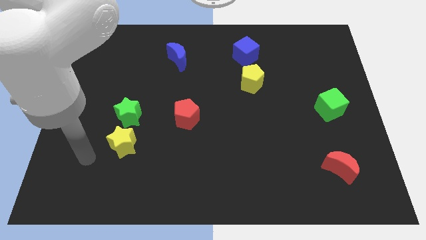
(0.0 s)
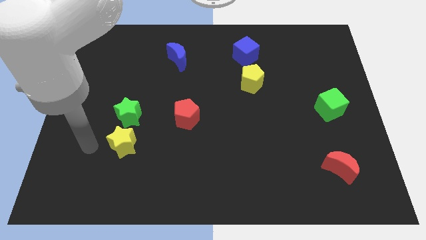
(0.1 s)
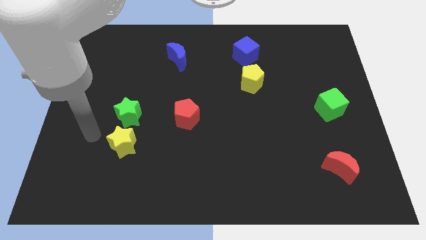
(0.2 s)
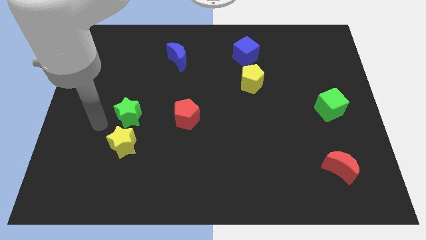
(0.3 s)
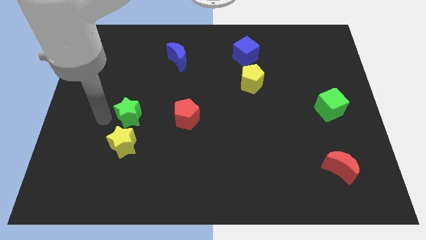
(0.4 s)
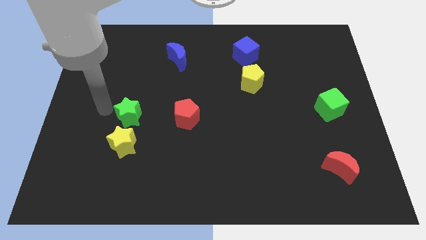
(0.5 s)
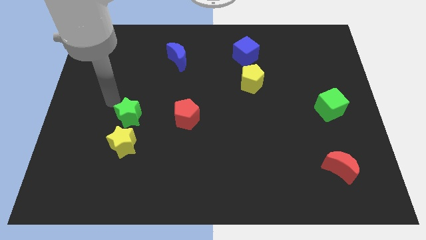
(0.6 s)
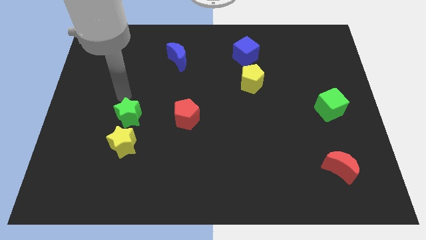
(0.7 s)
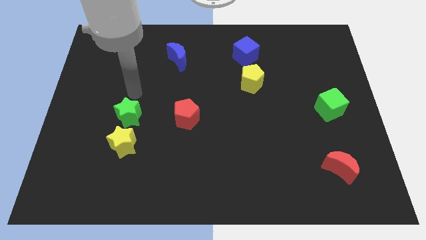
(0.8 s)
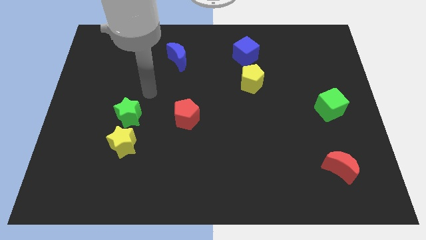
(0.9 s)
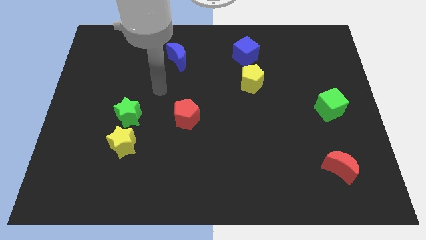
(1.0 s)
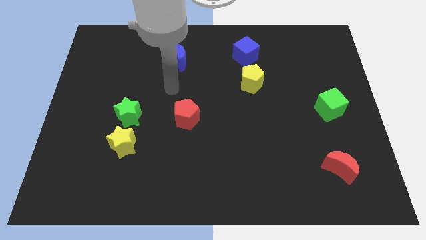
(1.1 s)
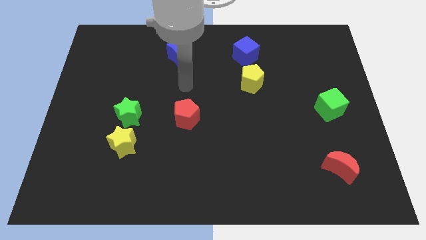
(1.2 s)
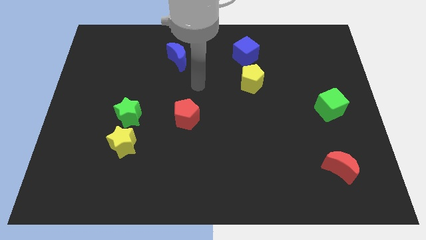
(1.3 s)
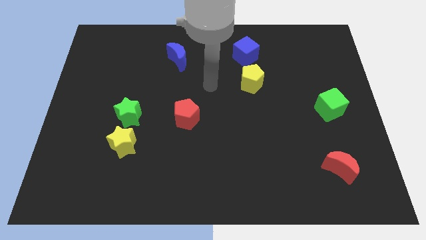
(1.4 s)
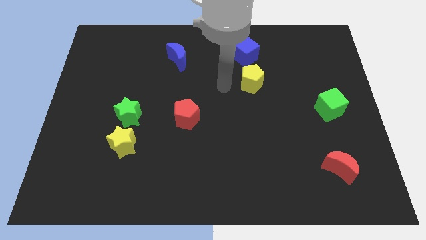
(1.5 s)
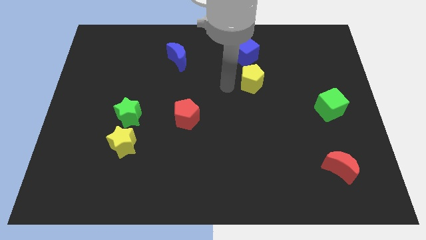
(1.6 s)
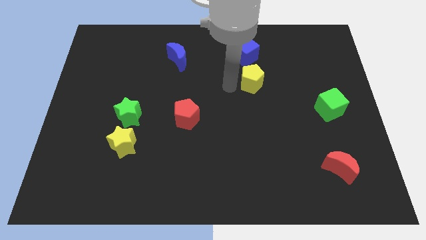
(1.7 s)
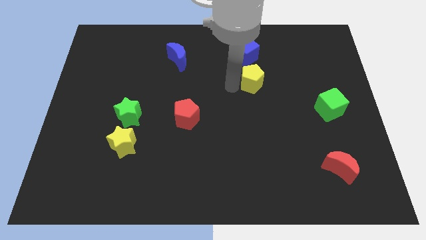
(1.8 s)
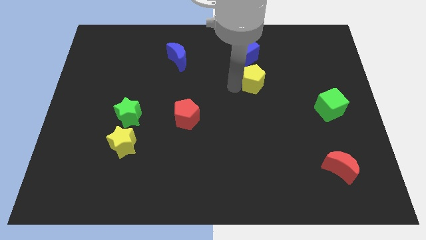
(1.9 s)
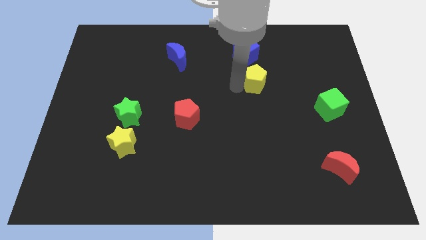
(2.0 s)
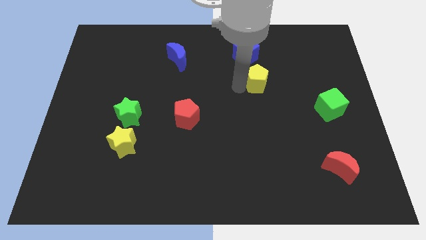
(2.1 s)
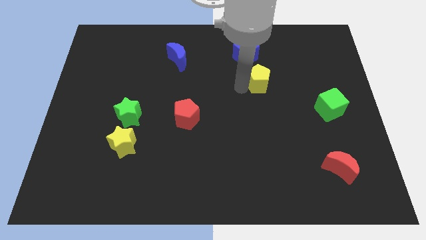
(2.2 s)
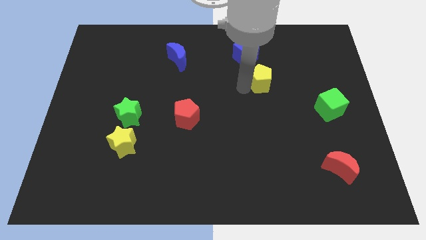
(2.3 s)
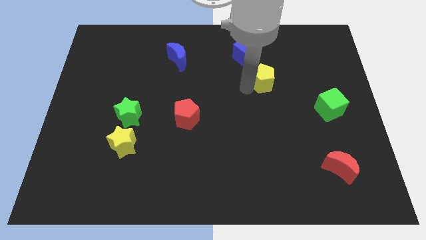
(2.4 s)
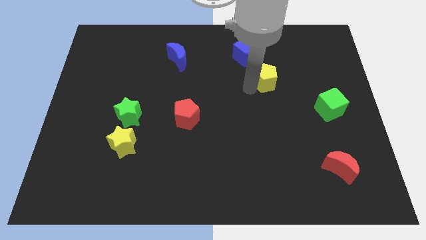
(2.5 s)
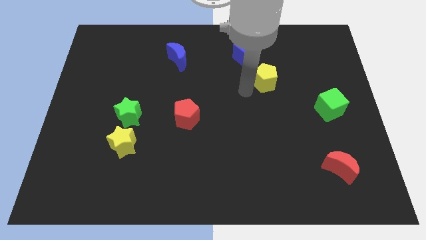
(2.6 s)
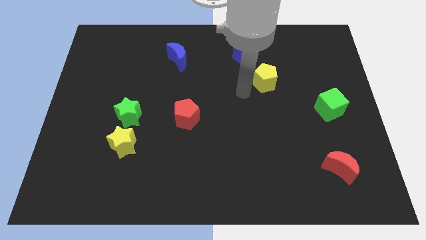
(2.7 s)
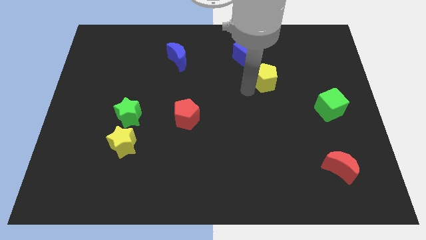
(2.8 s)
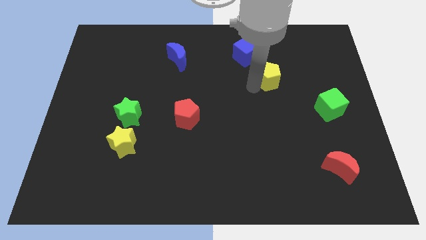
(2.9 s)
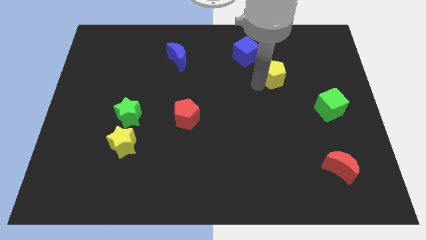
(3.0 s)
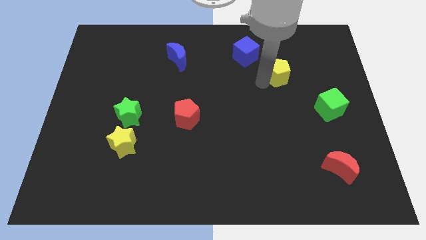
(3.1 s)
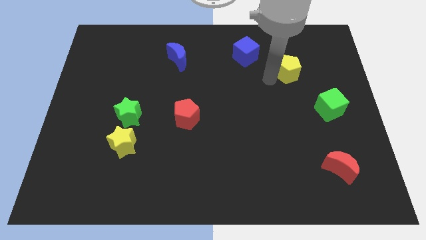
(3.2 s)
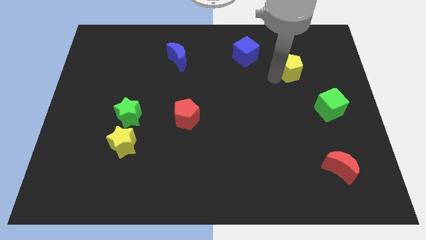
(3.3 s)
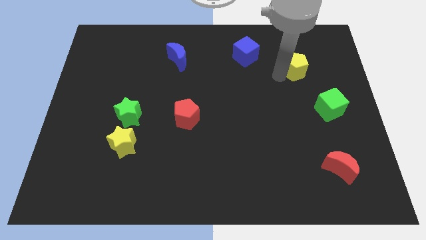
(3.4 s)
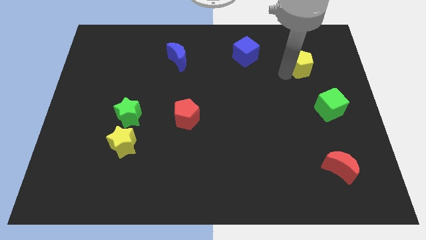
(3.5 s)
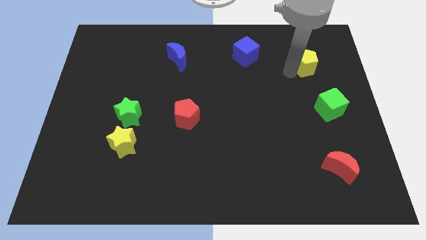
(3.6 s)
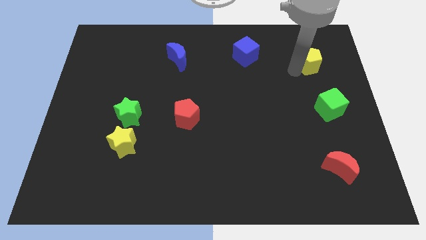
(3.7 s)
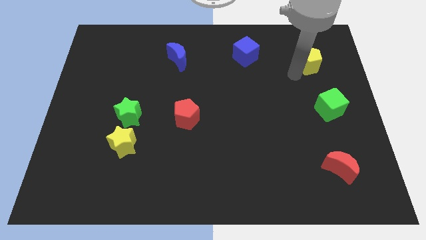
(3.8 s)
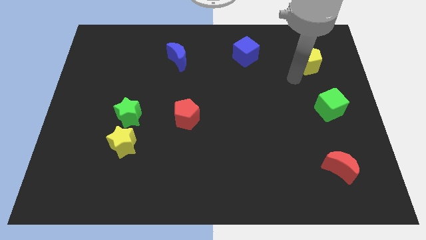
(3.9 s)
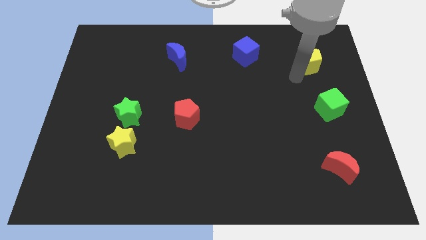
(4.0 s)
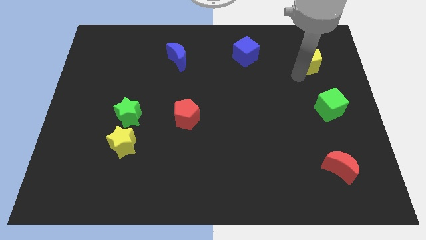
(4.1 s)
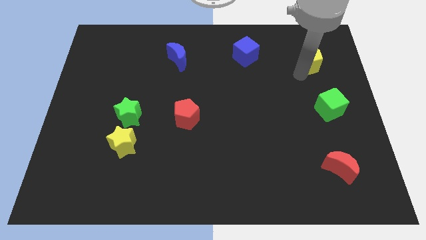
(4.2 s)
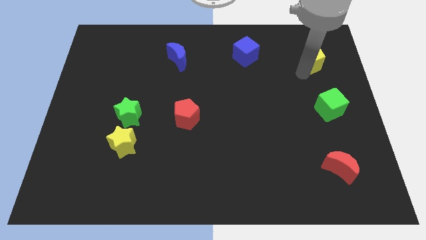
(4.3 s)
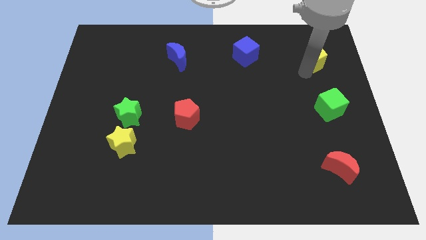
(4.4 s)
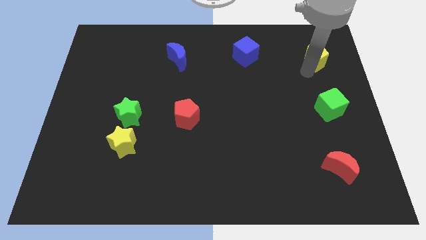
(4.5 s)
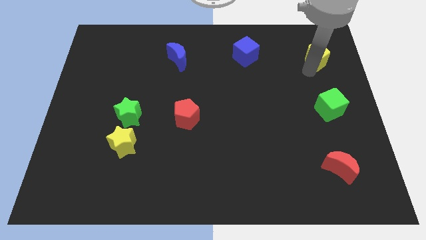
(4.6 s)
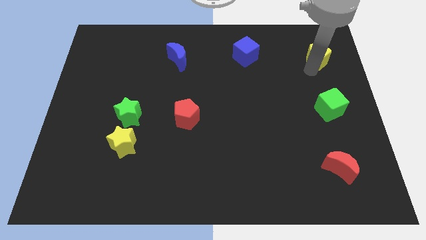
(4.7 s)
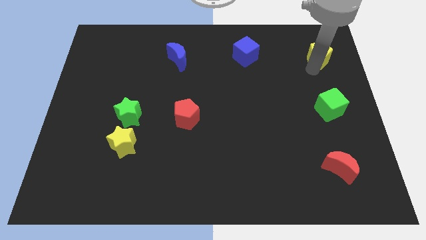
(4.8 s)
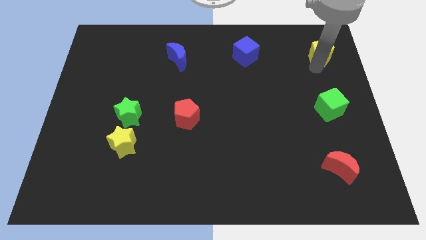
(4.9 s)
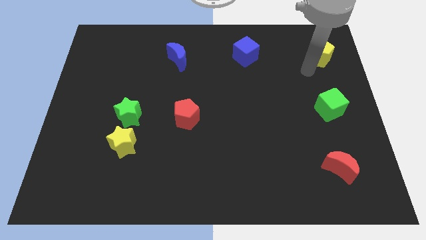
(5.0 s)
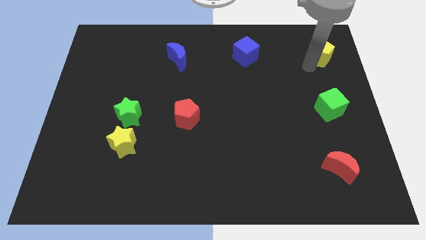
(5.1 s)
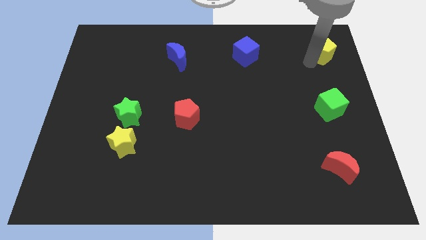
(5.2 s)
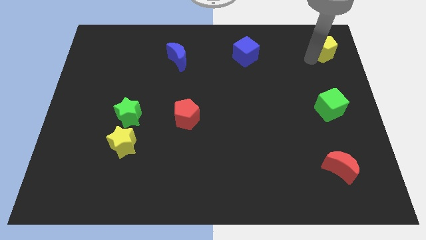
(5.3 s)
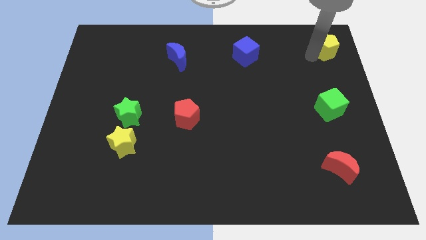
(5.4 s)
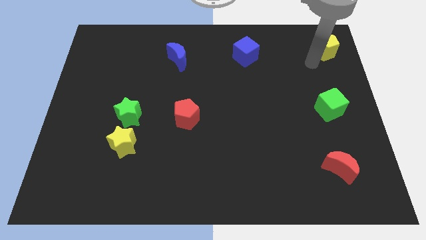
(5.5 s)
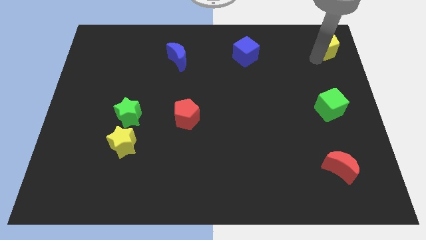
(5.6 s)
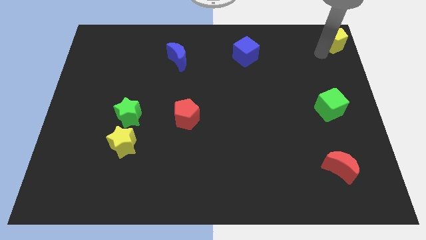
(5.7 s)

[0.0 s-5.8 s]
put the yellow pentagon to the top right

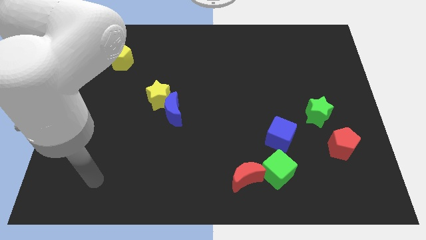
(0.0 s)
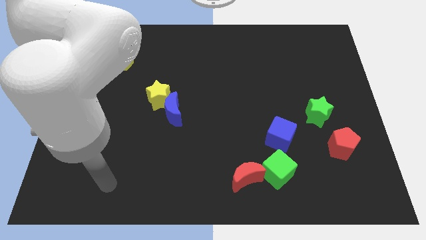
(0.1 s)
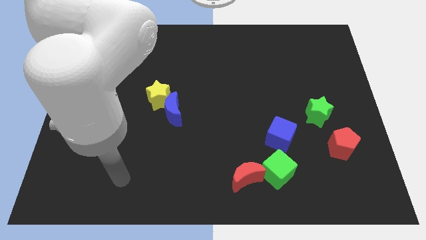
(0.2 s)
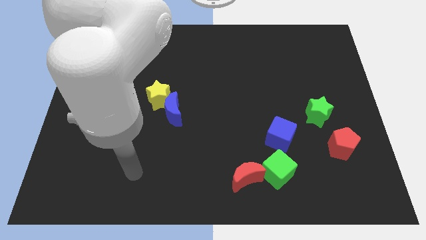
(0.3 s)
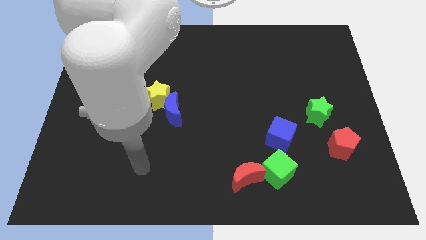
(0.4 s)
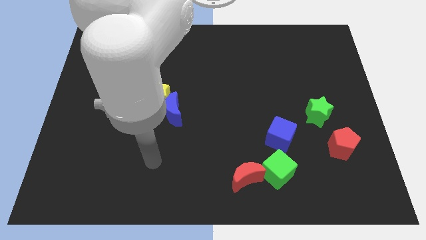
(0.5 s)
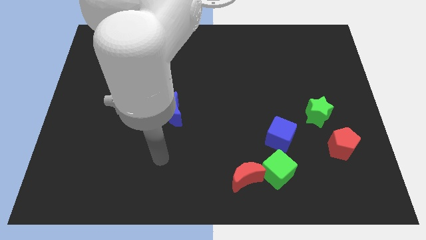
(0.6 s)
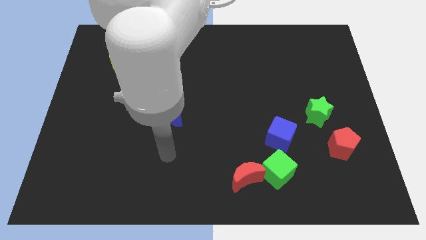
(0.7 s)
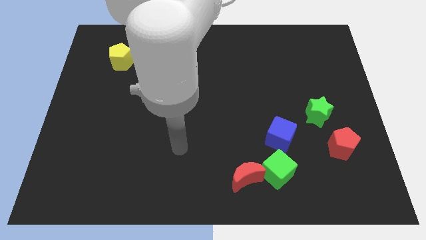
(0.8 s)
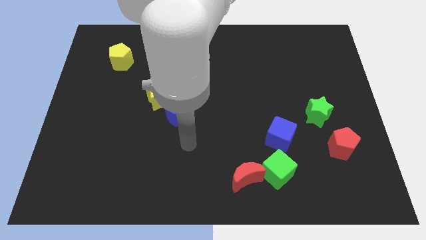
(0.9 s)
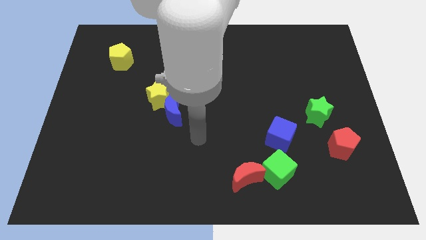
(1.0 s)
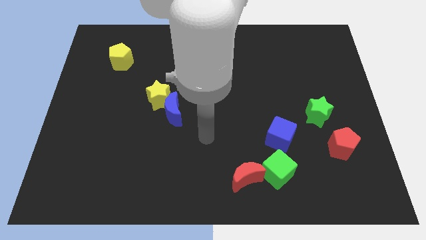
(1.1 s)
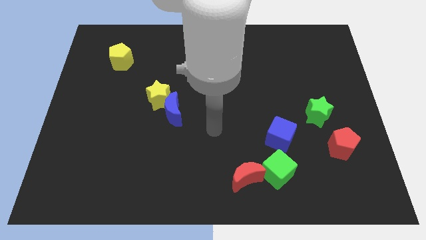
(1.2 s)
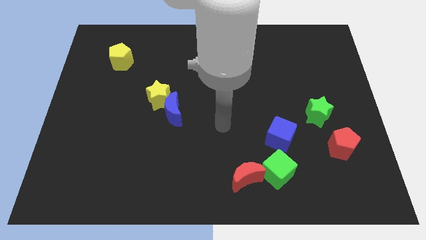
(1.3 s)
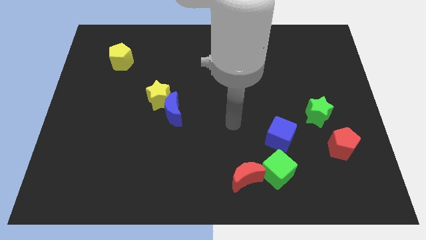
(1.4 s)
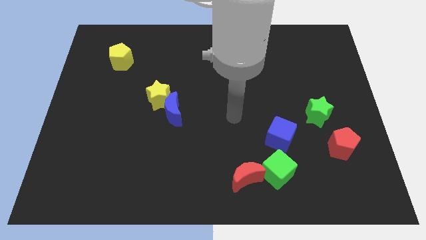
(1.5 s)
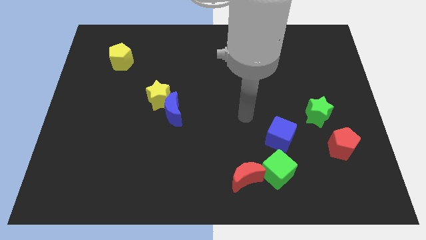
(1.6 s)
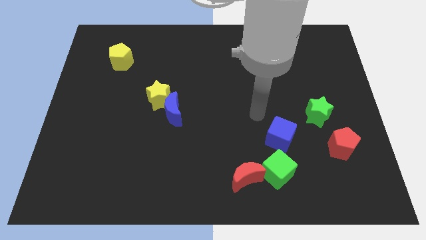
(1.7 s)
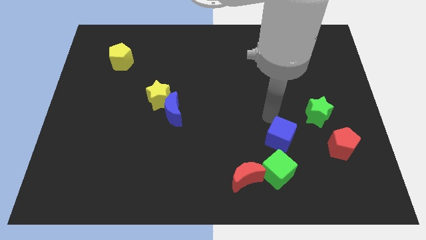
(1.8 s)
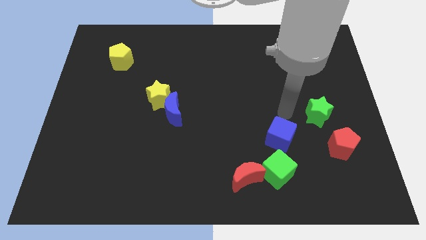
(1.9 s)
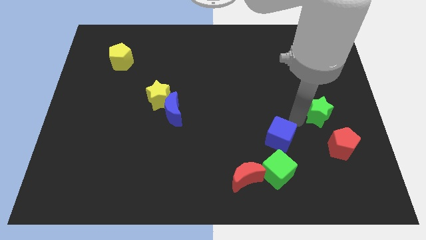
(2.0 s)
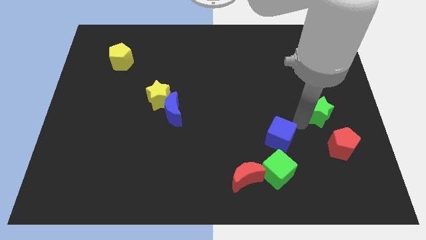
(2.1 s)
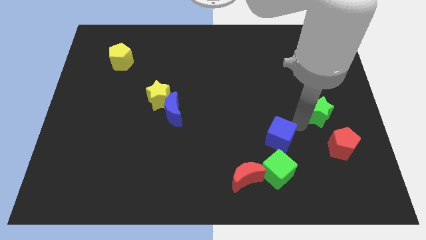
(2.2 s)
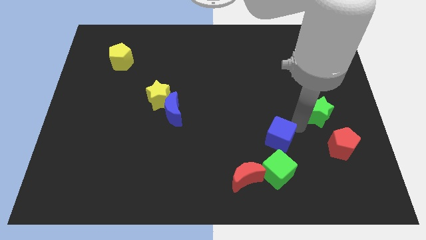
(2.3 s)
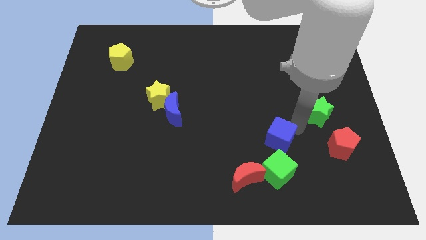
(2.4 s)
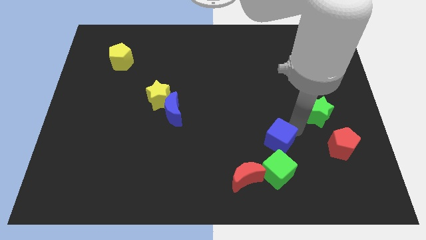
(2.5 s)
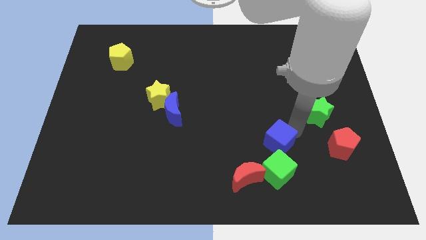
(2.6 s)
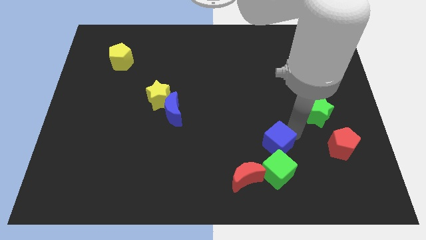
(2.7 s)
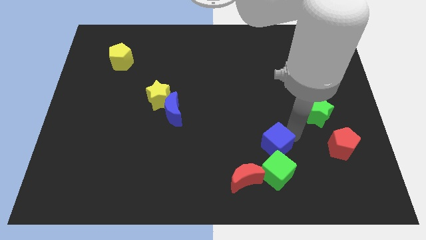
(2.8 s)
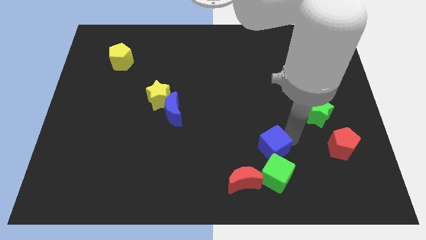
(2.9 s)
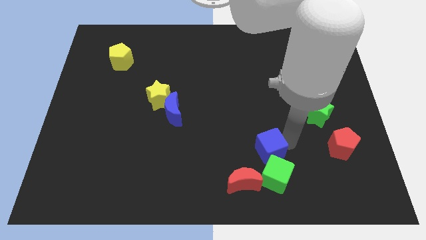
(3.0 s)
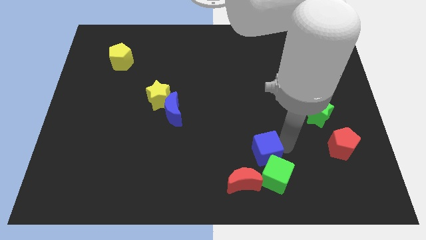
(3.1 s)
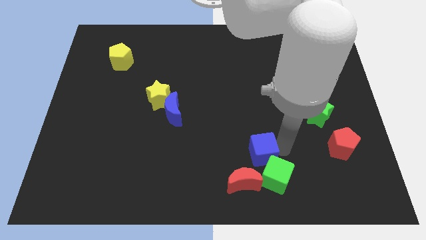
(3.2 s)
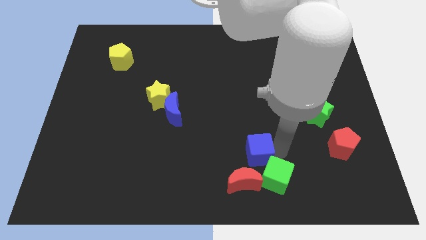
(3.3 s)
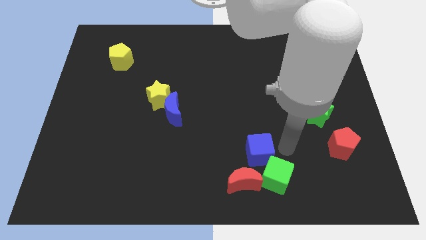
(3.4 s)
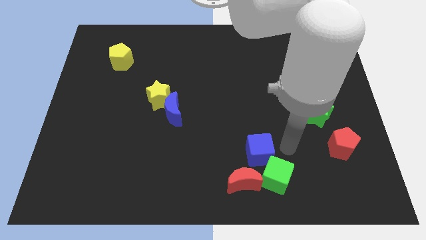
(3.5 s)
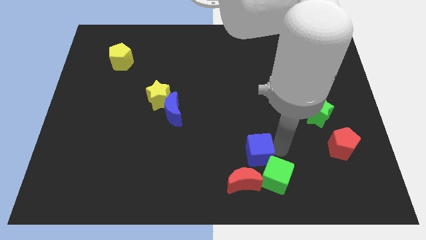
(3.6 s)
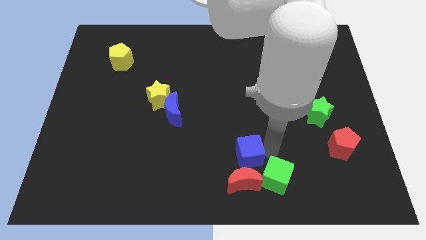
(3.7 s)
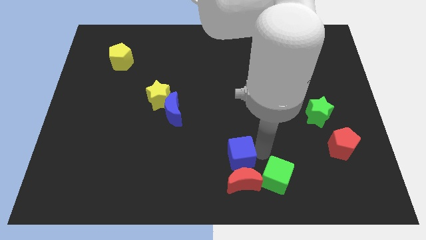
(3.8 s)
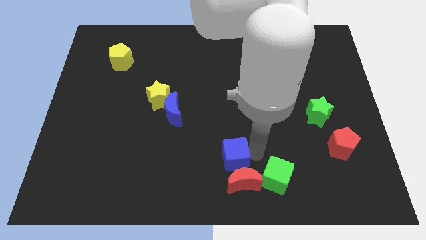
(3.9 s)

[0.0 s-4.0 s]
put the blue cube to the bottom
